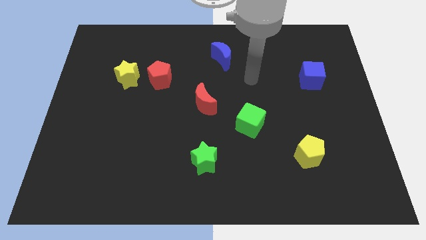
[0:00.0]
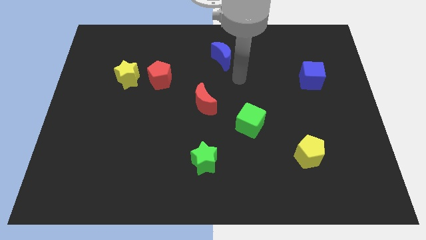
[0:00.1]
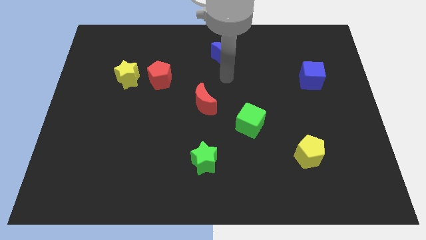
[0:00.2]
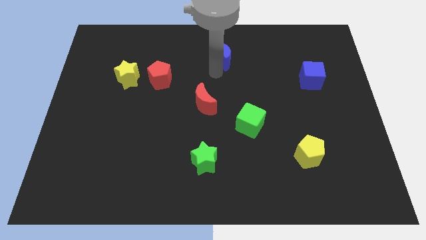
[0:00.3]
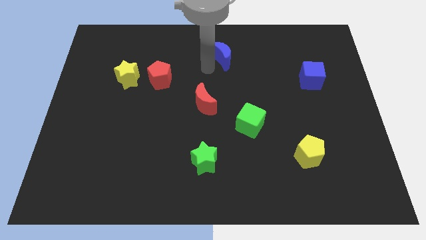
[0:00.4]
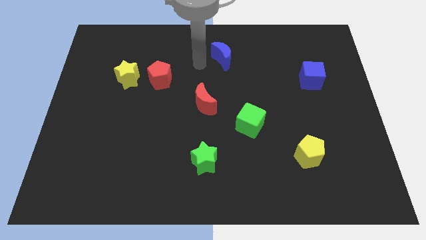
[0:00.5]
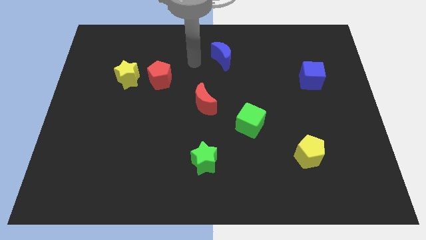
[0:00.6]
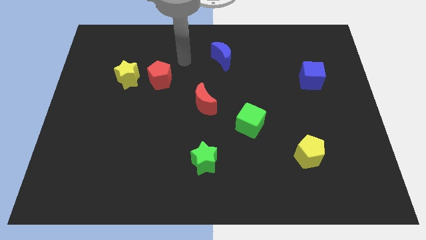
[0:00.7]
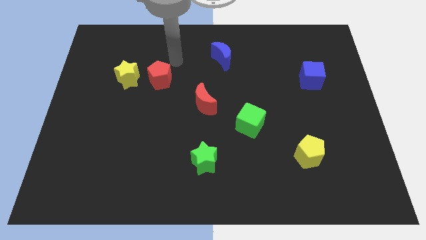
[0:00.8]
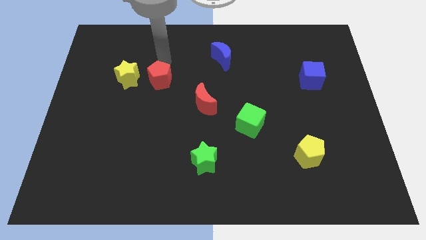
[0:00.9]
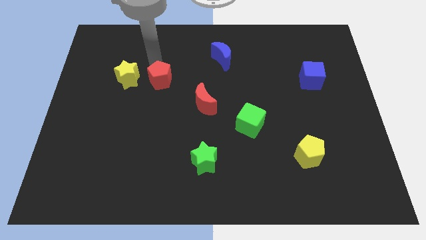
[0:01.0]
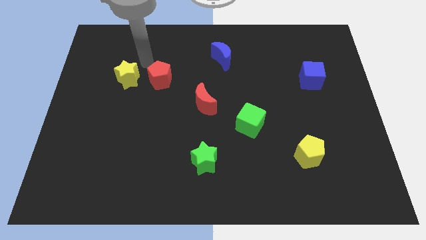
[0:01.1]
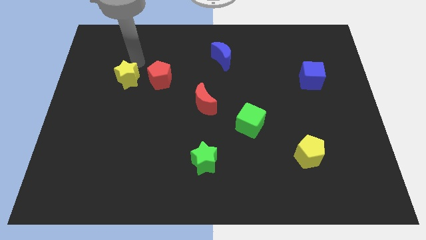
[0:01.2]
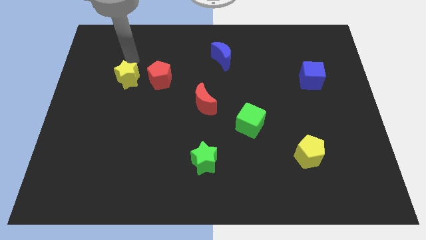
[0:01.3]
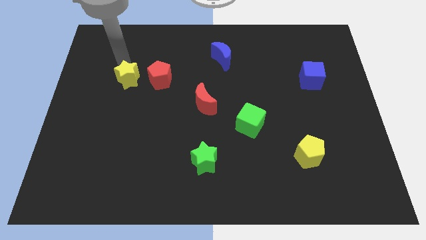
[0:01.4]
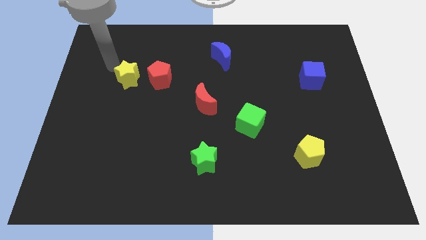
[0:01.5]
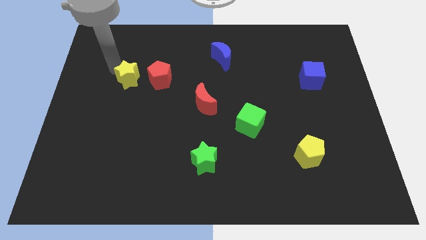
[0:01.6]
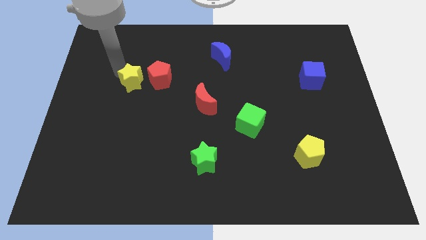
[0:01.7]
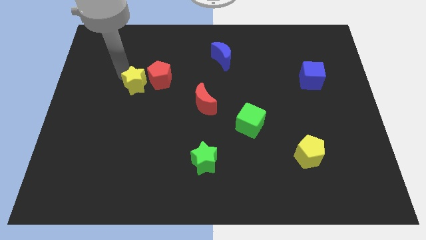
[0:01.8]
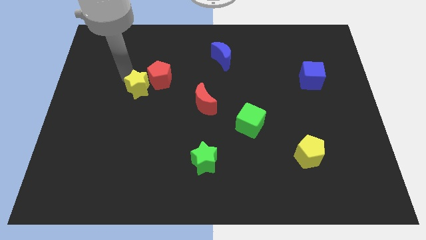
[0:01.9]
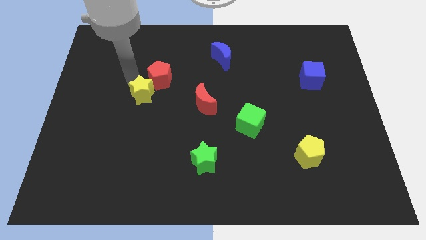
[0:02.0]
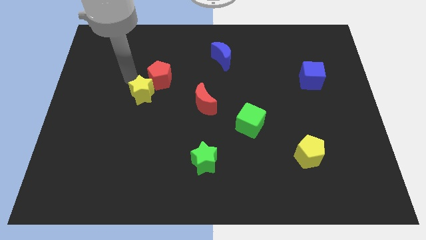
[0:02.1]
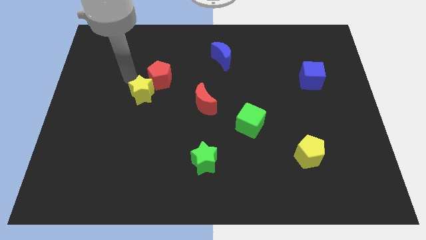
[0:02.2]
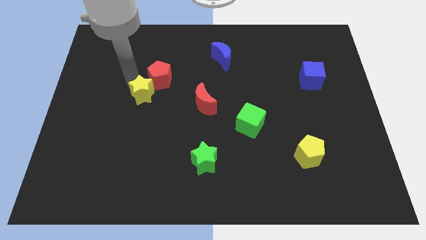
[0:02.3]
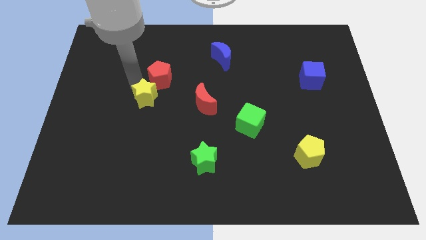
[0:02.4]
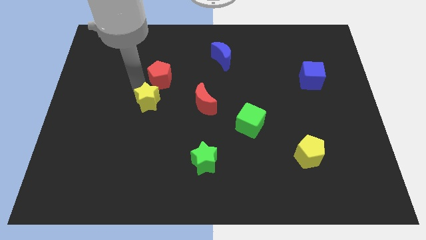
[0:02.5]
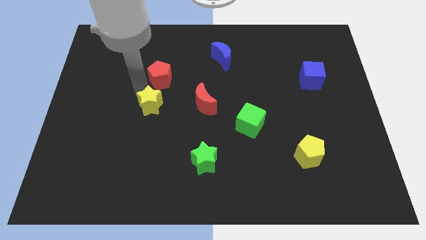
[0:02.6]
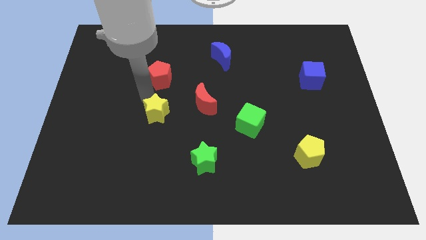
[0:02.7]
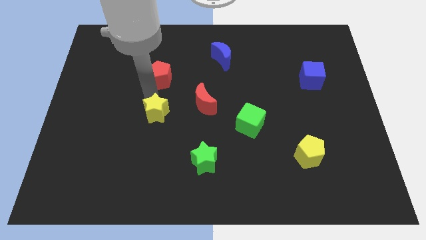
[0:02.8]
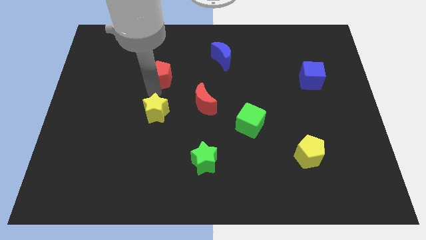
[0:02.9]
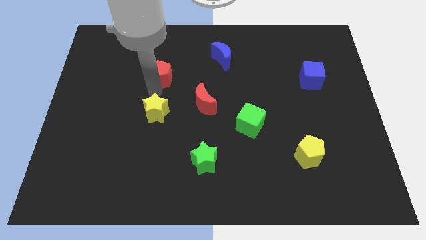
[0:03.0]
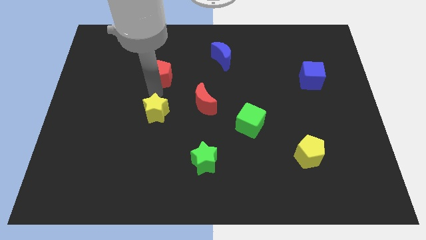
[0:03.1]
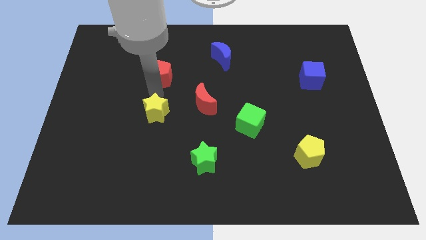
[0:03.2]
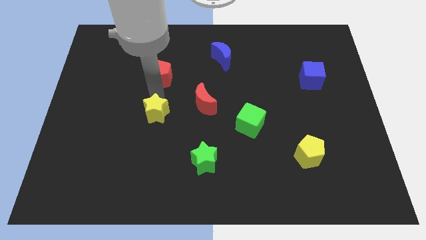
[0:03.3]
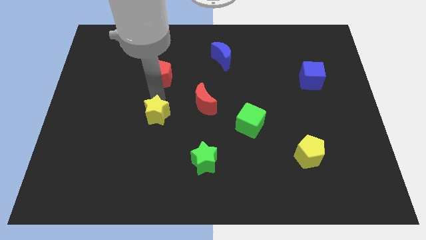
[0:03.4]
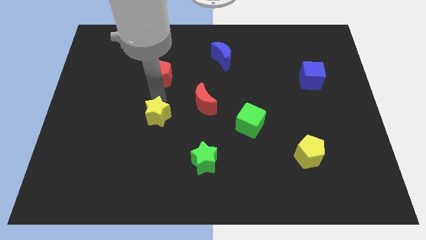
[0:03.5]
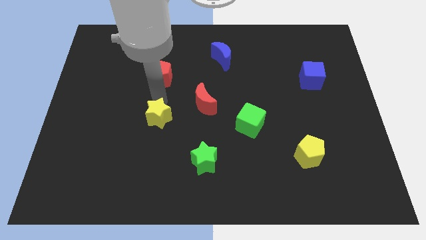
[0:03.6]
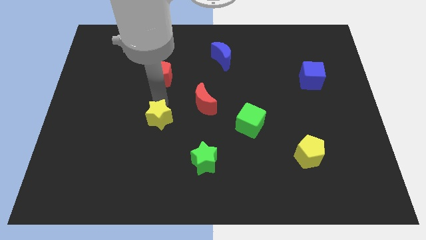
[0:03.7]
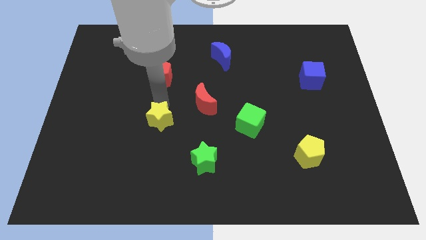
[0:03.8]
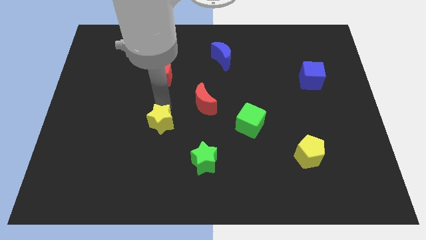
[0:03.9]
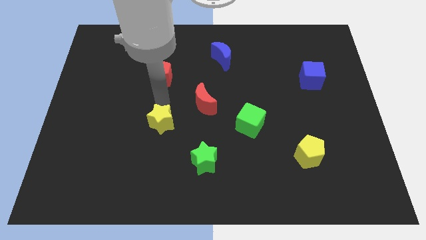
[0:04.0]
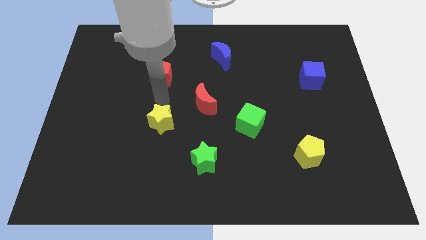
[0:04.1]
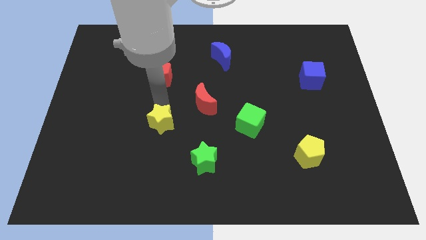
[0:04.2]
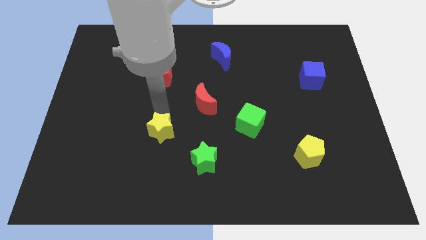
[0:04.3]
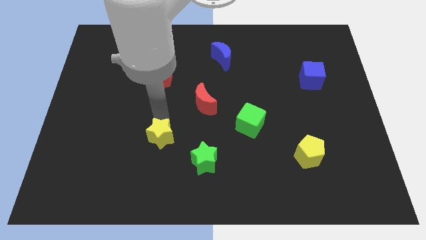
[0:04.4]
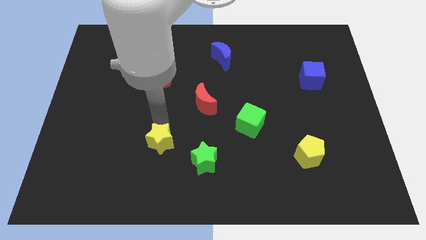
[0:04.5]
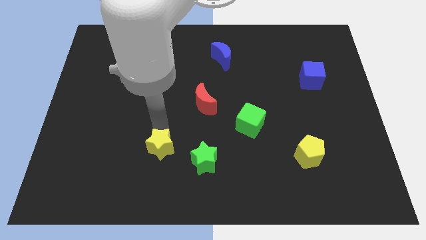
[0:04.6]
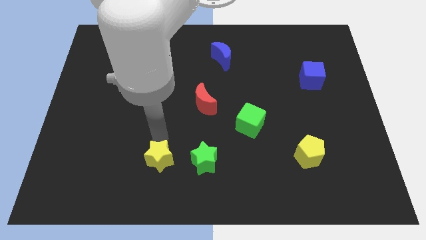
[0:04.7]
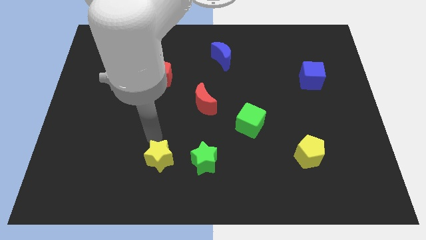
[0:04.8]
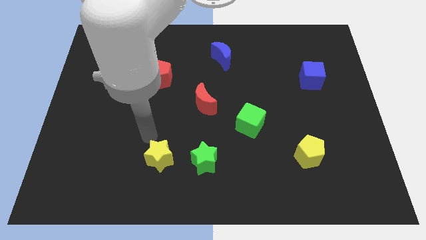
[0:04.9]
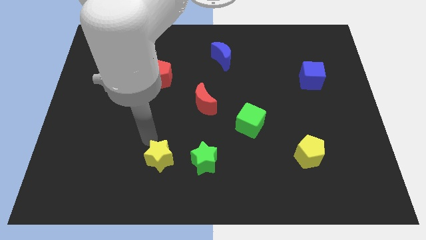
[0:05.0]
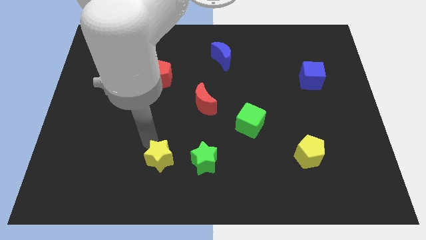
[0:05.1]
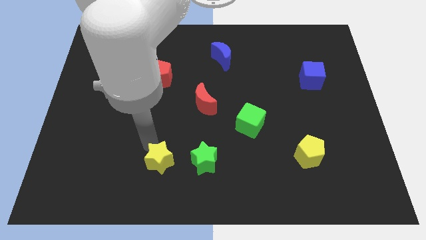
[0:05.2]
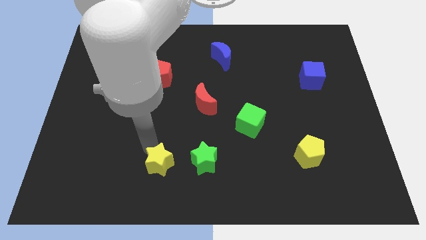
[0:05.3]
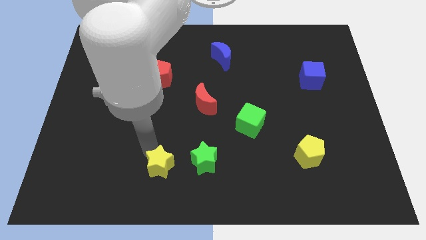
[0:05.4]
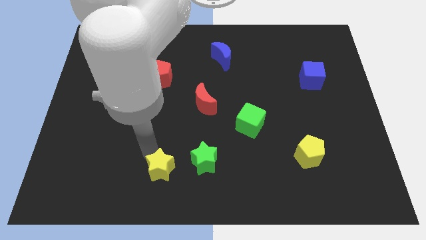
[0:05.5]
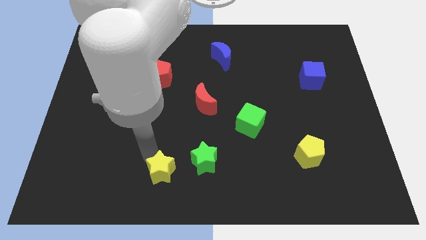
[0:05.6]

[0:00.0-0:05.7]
push the yellow star to the bottom side
